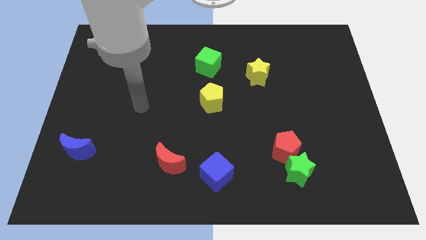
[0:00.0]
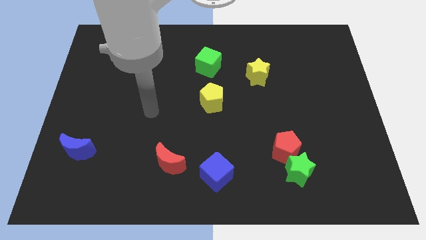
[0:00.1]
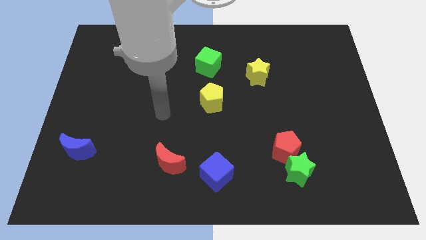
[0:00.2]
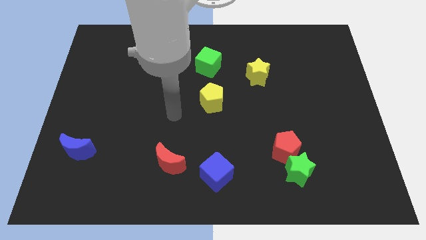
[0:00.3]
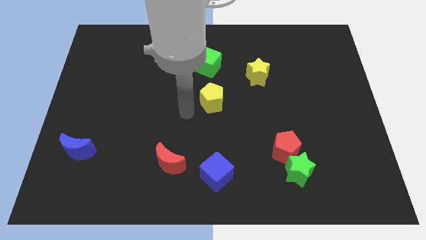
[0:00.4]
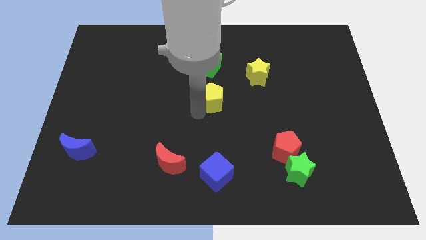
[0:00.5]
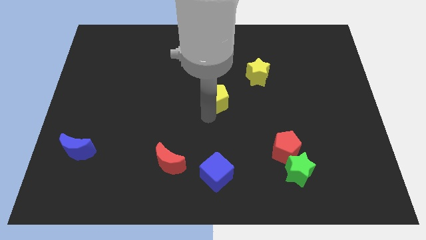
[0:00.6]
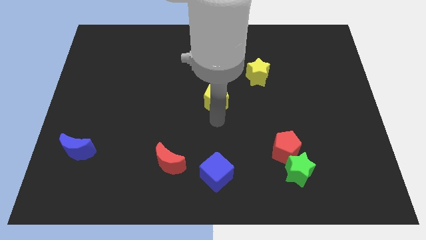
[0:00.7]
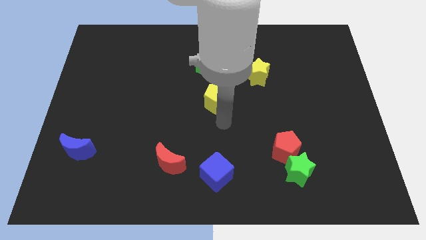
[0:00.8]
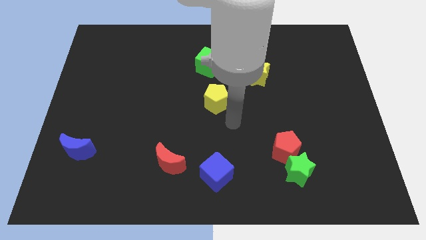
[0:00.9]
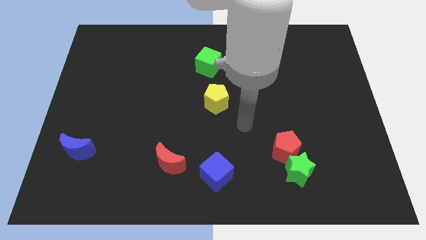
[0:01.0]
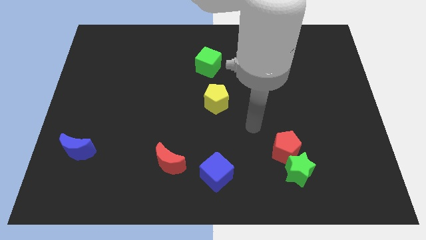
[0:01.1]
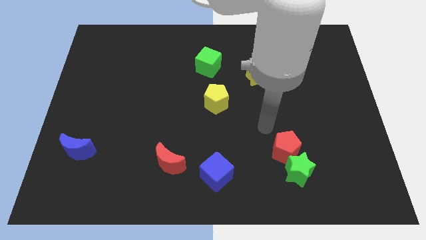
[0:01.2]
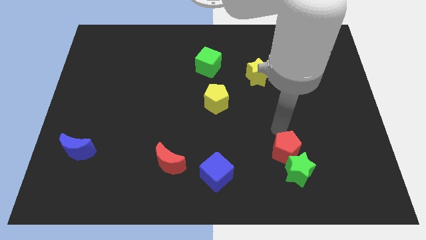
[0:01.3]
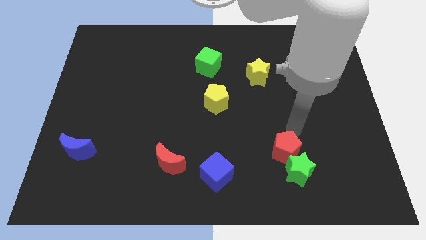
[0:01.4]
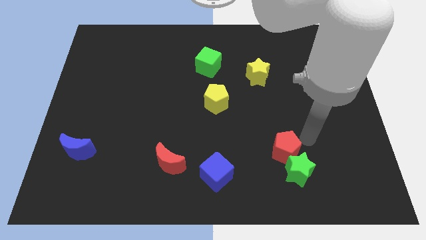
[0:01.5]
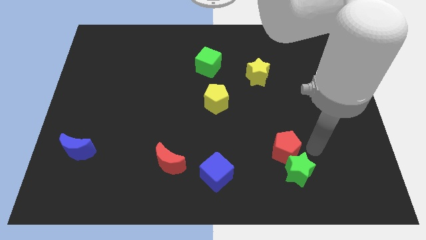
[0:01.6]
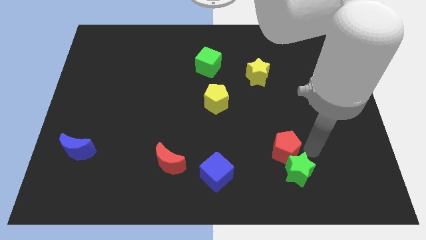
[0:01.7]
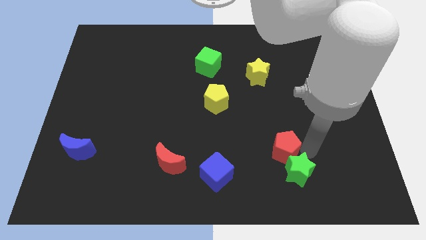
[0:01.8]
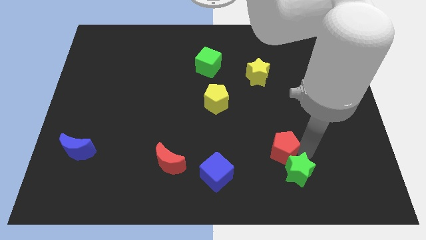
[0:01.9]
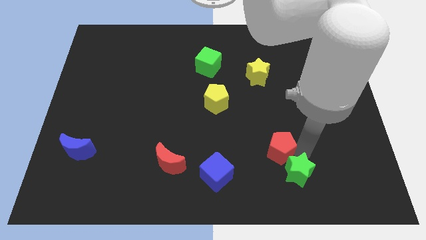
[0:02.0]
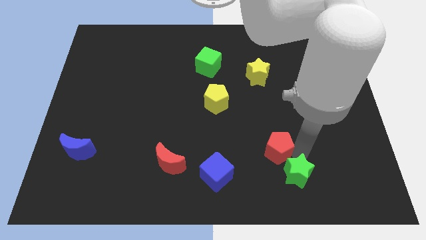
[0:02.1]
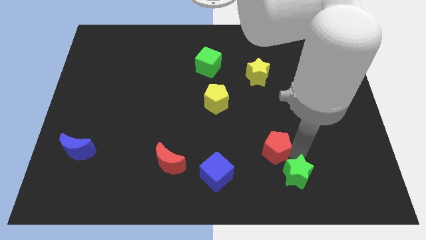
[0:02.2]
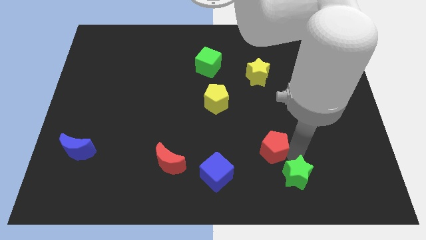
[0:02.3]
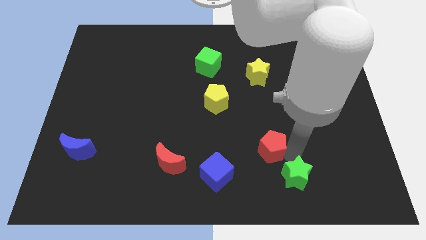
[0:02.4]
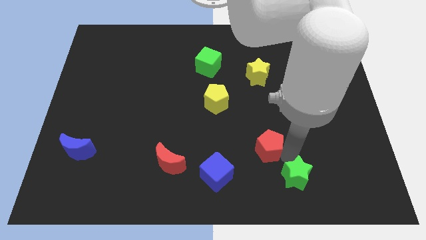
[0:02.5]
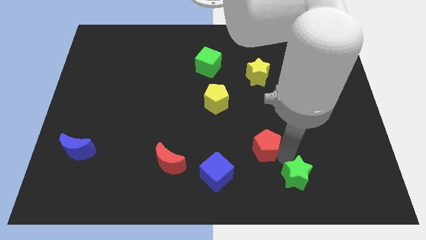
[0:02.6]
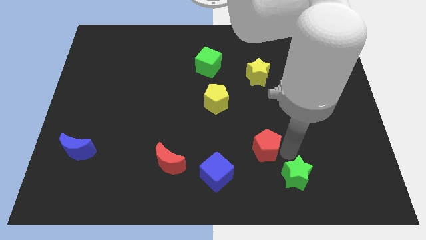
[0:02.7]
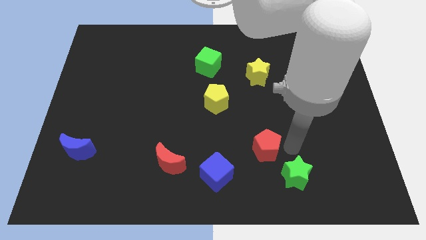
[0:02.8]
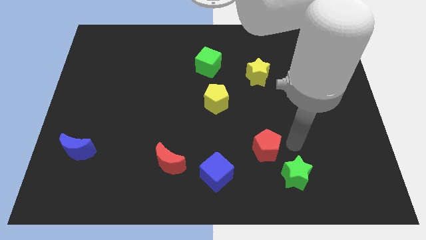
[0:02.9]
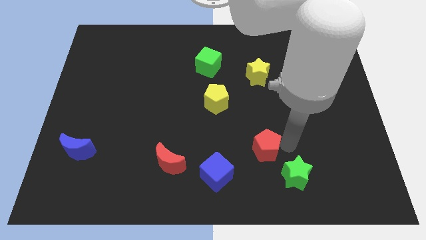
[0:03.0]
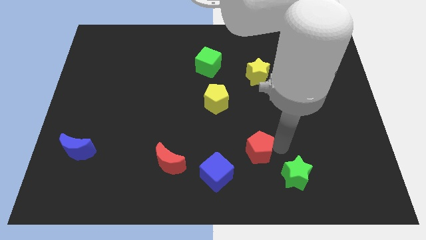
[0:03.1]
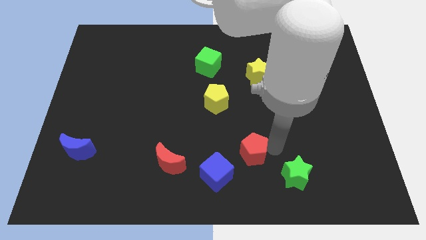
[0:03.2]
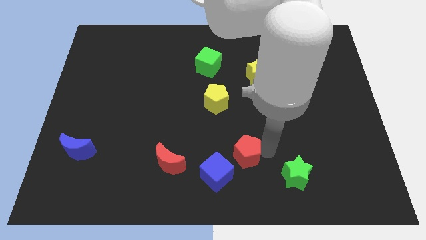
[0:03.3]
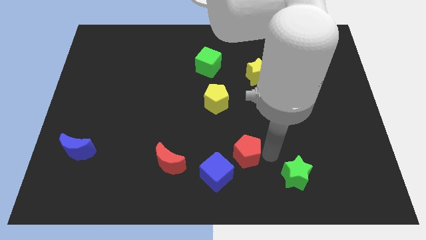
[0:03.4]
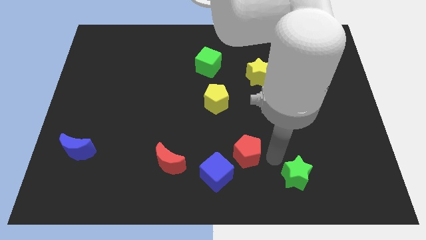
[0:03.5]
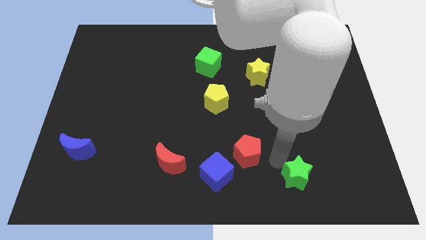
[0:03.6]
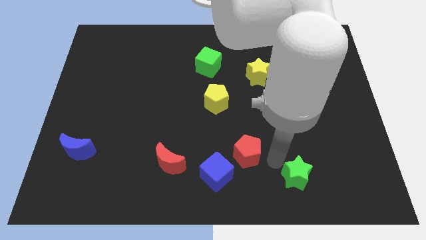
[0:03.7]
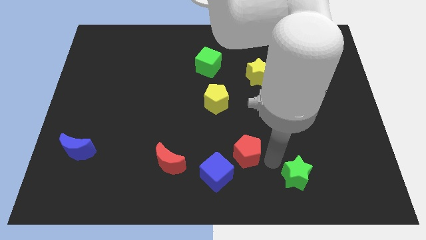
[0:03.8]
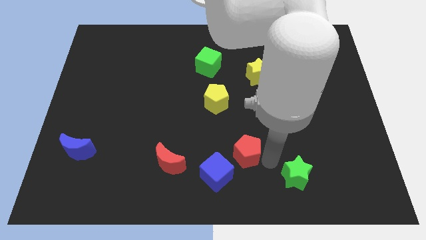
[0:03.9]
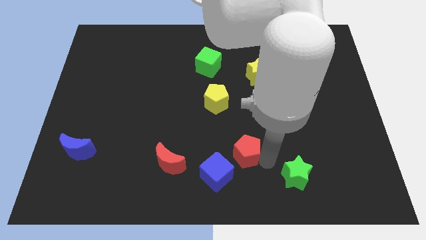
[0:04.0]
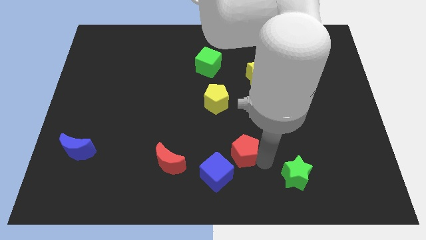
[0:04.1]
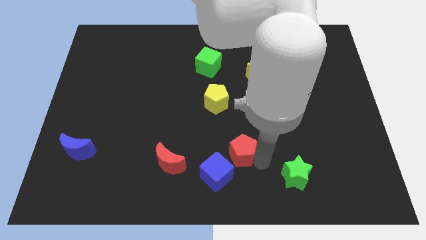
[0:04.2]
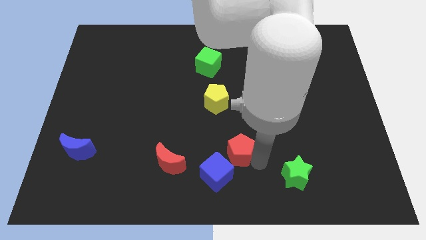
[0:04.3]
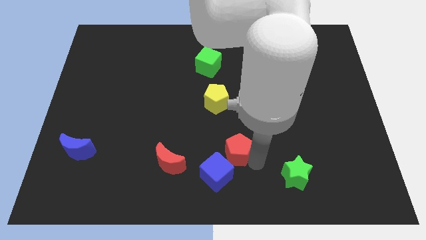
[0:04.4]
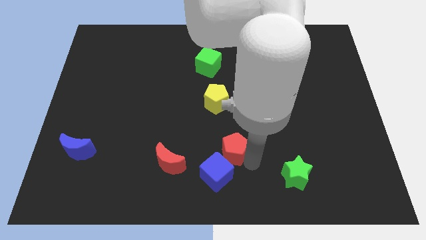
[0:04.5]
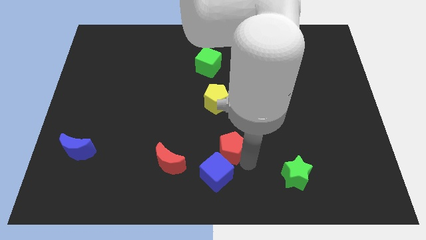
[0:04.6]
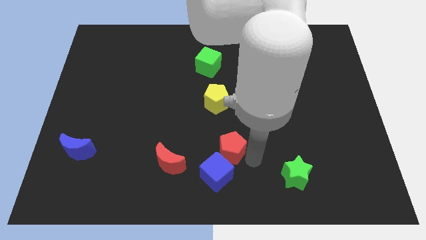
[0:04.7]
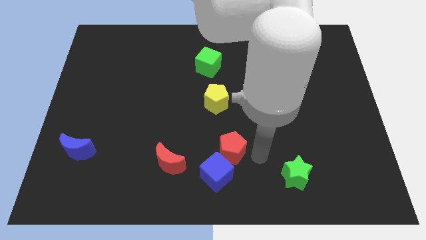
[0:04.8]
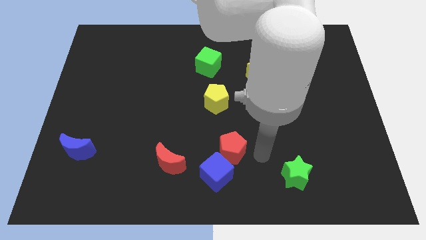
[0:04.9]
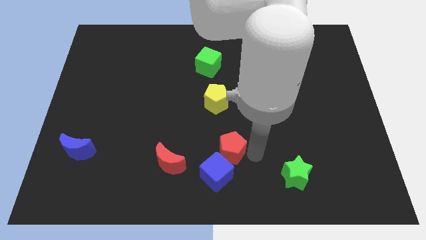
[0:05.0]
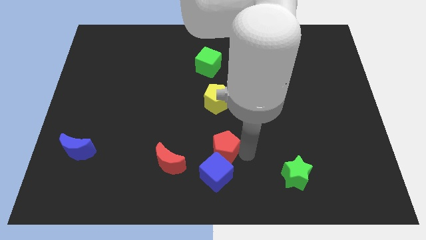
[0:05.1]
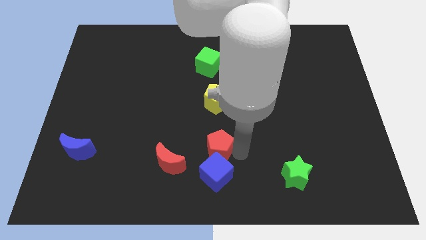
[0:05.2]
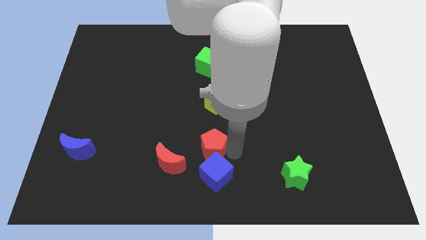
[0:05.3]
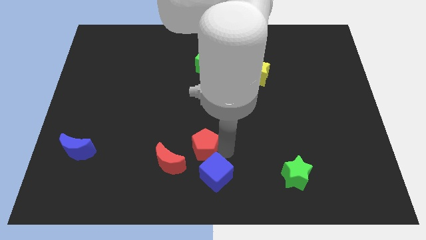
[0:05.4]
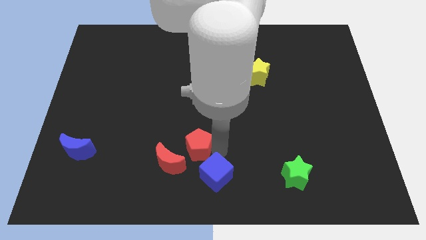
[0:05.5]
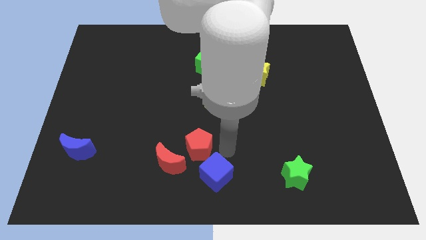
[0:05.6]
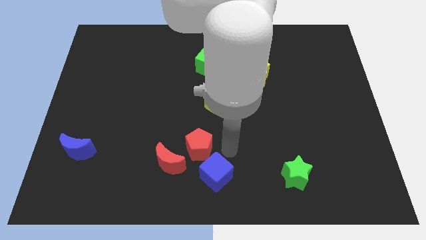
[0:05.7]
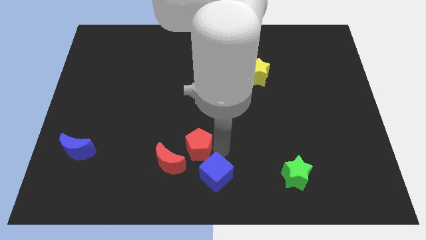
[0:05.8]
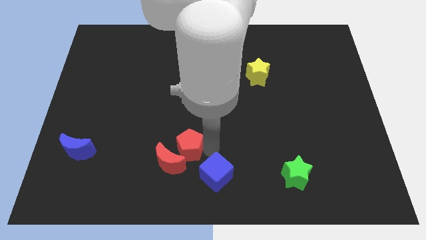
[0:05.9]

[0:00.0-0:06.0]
push the red pentagon left

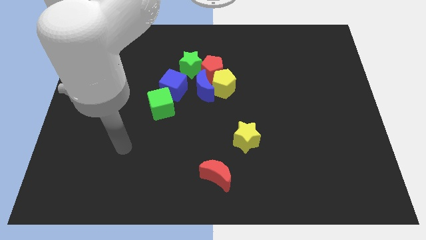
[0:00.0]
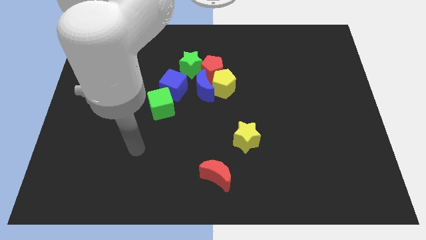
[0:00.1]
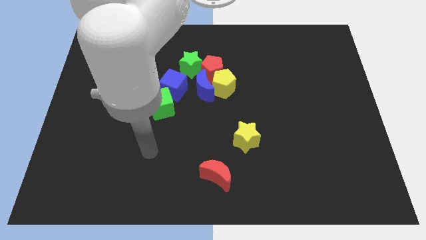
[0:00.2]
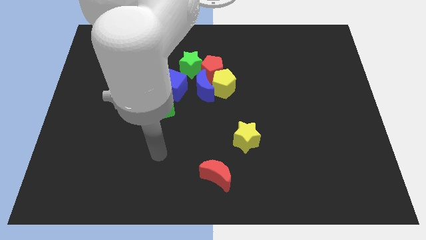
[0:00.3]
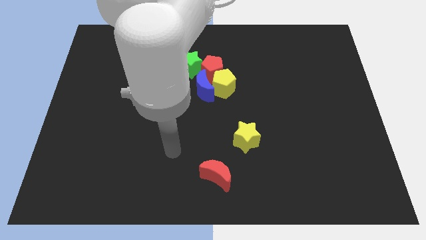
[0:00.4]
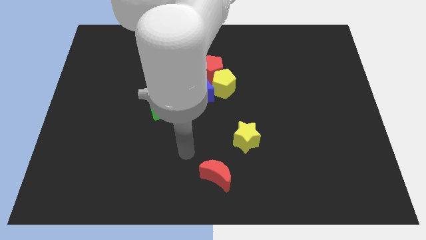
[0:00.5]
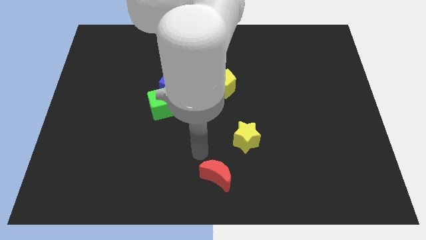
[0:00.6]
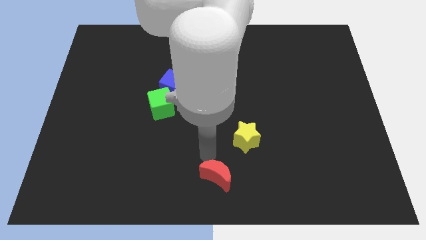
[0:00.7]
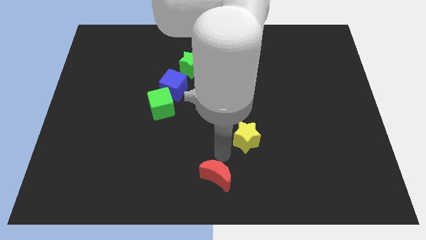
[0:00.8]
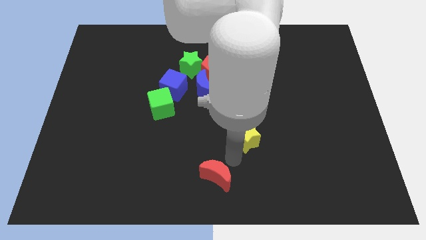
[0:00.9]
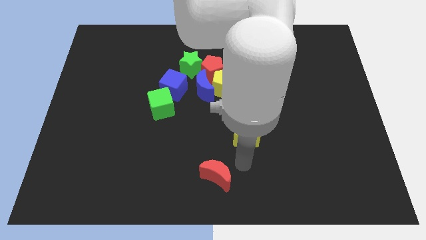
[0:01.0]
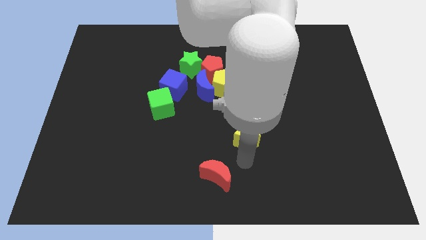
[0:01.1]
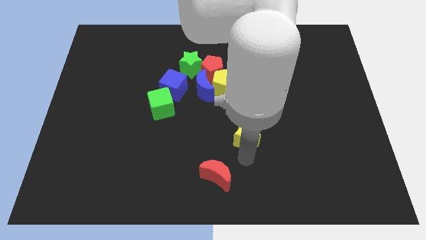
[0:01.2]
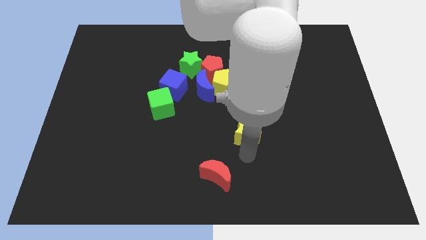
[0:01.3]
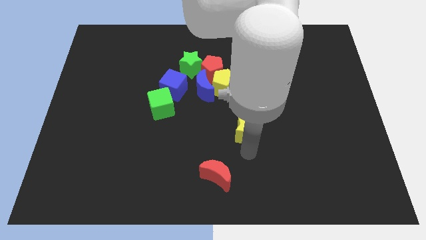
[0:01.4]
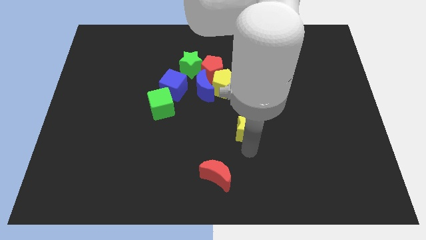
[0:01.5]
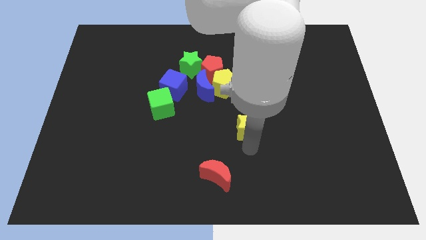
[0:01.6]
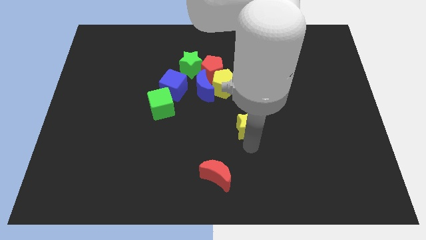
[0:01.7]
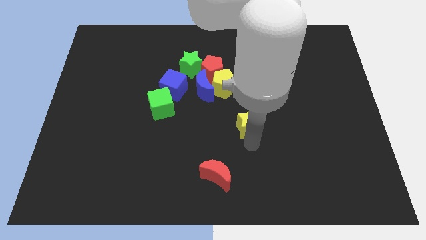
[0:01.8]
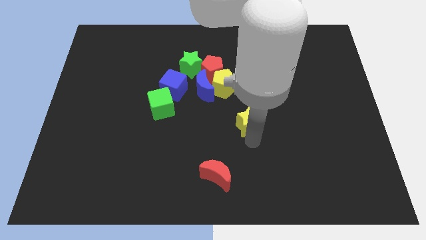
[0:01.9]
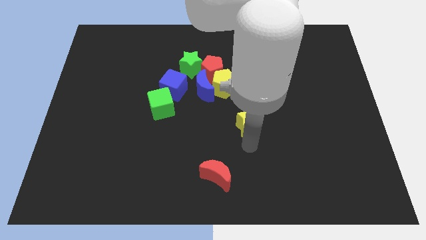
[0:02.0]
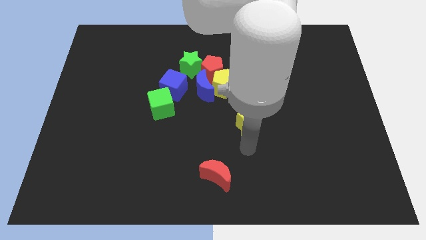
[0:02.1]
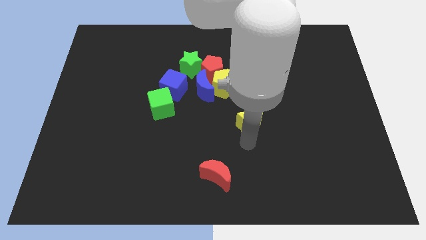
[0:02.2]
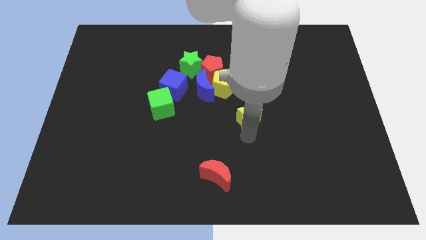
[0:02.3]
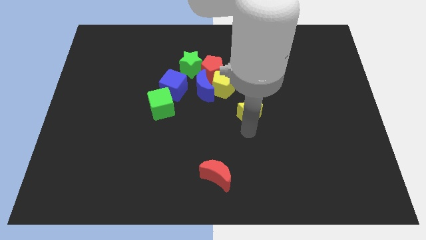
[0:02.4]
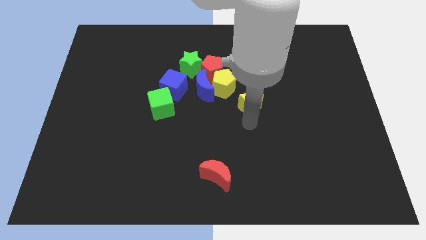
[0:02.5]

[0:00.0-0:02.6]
slightly slide the yellow star upwards
